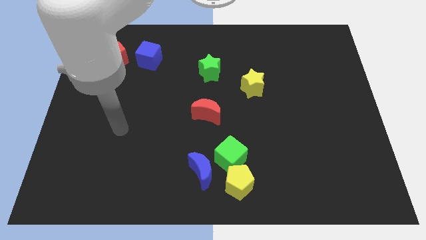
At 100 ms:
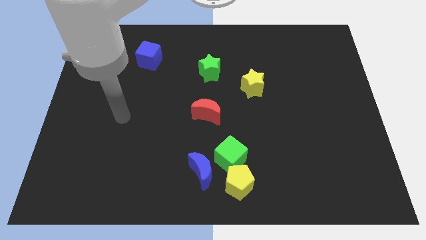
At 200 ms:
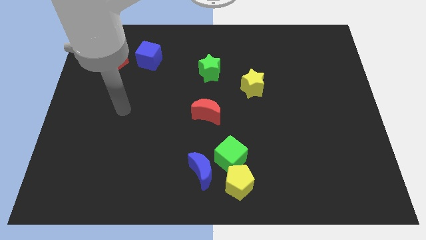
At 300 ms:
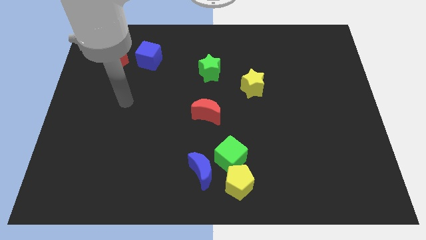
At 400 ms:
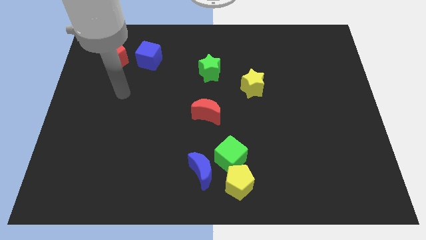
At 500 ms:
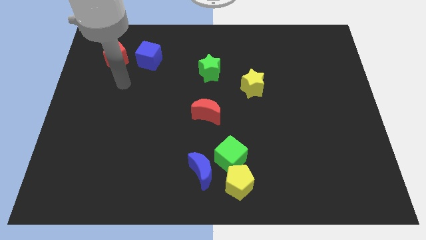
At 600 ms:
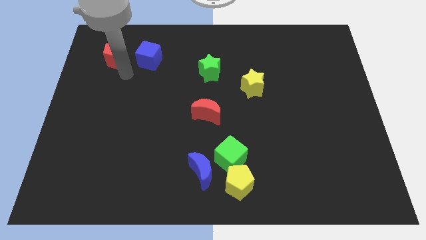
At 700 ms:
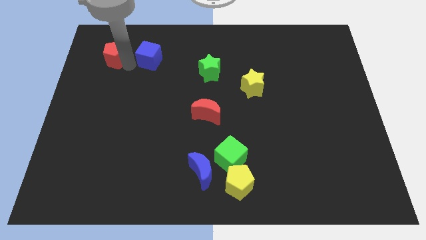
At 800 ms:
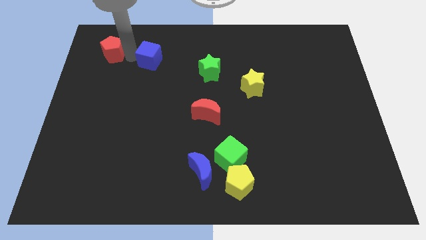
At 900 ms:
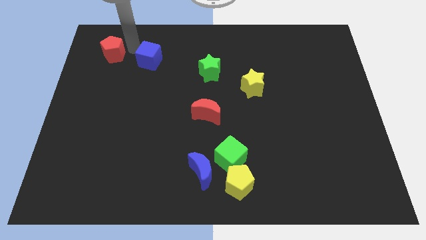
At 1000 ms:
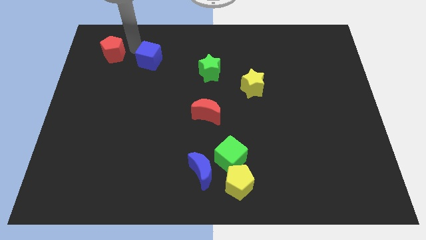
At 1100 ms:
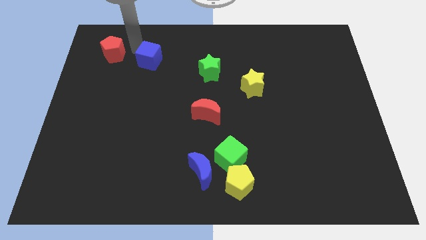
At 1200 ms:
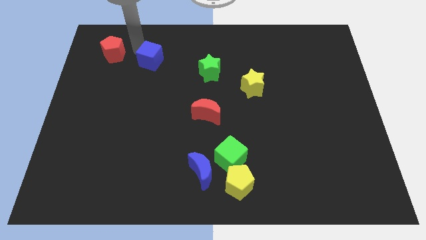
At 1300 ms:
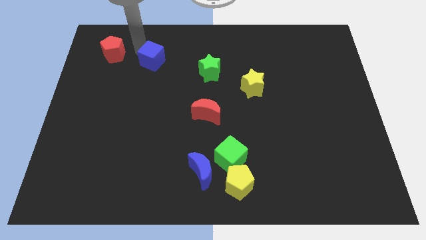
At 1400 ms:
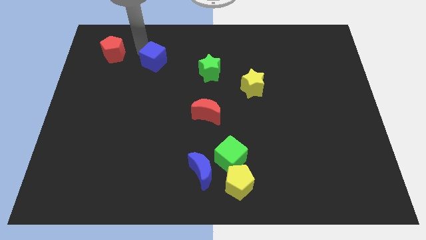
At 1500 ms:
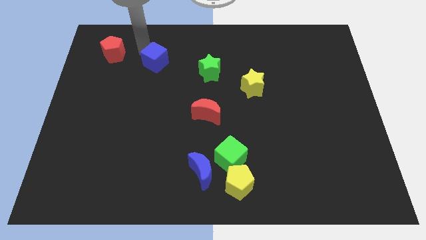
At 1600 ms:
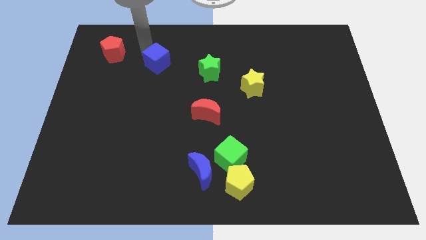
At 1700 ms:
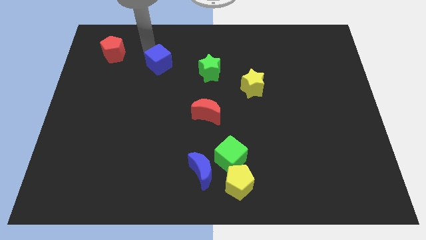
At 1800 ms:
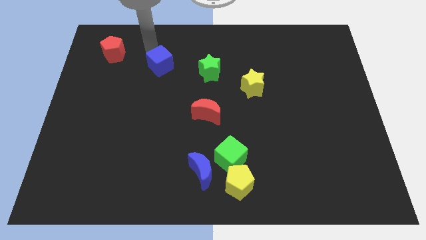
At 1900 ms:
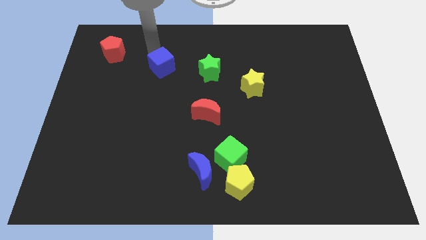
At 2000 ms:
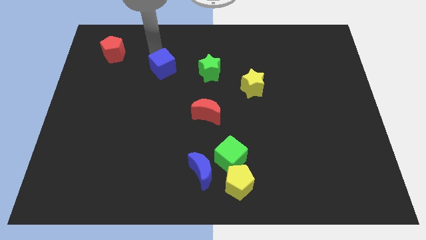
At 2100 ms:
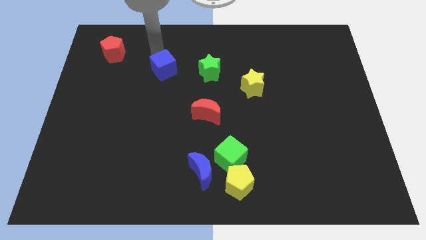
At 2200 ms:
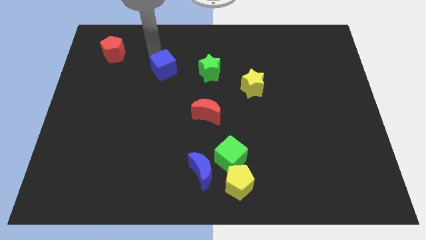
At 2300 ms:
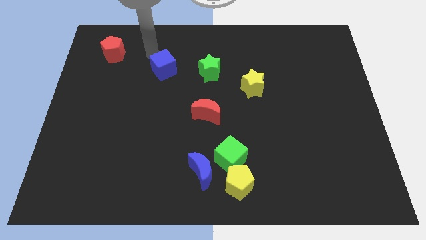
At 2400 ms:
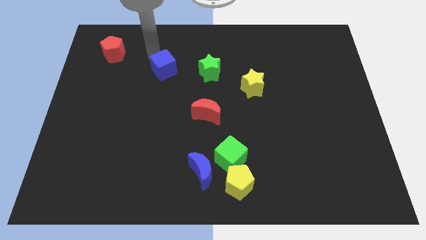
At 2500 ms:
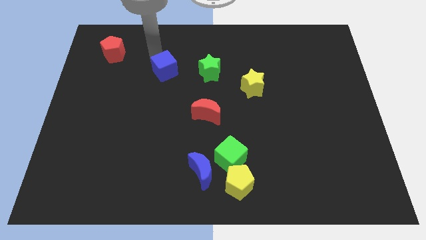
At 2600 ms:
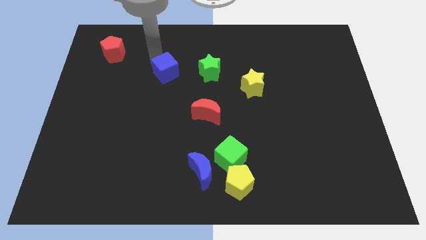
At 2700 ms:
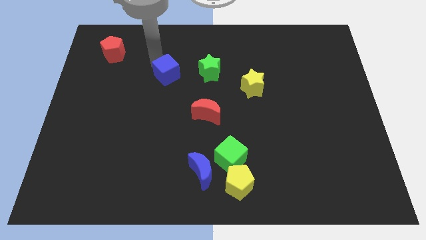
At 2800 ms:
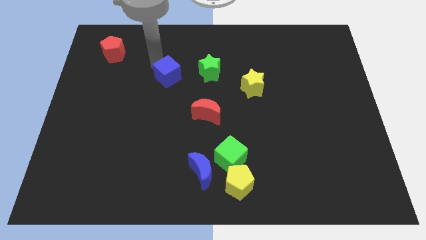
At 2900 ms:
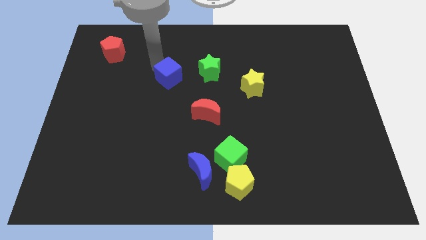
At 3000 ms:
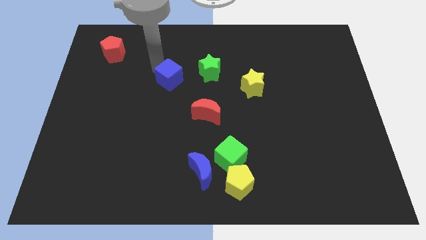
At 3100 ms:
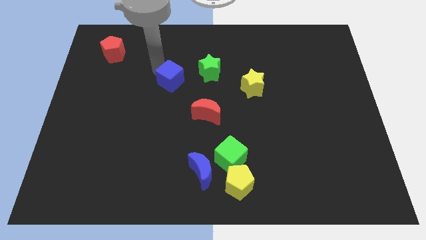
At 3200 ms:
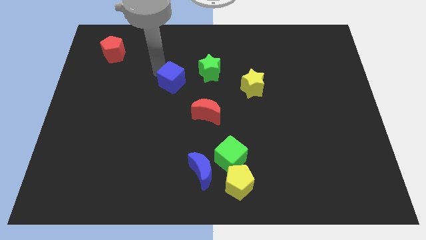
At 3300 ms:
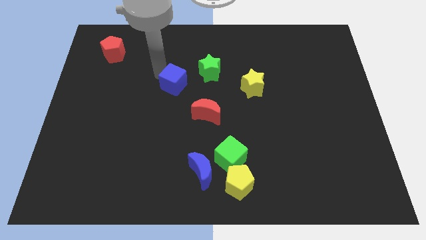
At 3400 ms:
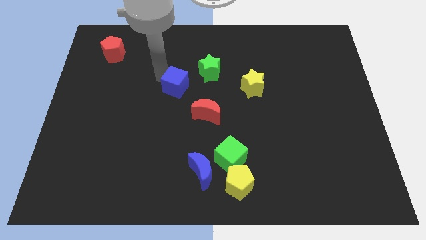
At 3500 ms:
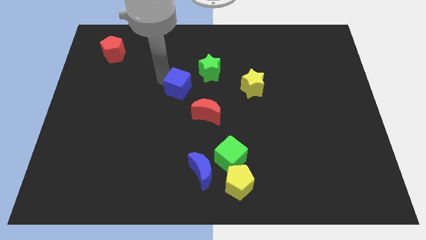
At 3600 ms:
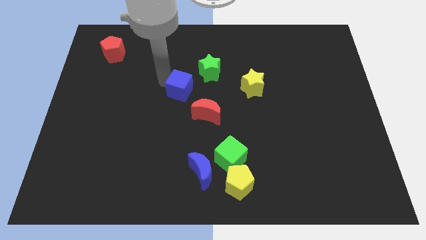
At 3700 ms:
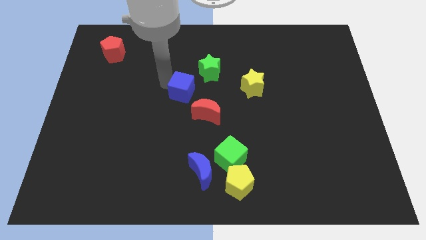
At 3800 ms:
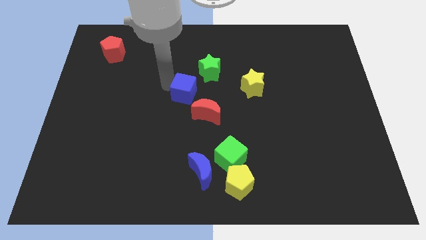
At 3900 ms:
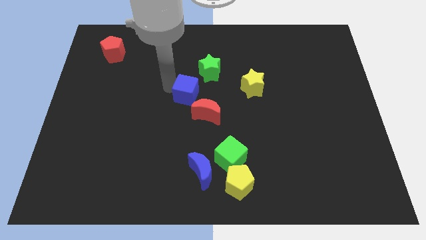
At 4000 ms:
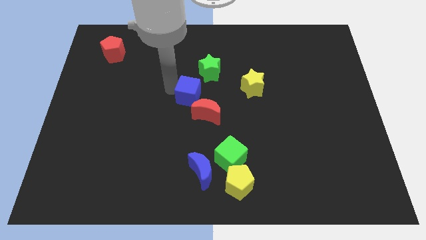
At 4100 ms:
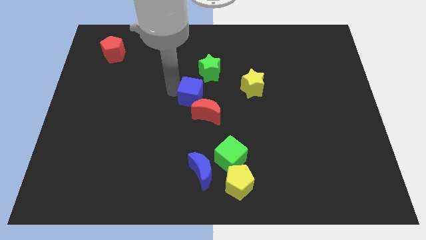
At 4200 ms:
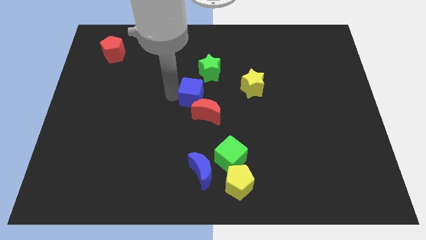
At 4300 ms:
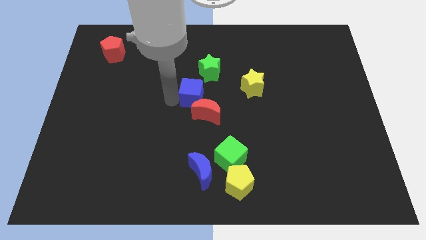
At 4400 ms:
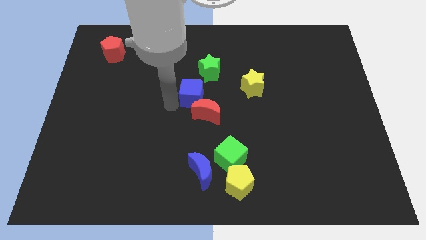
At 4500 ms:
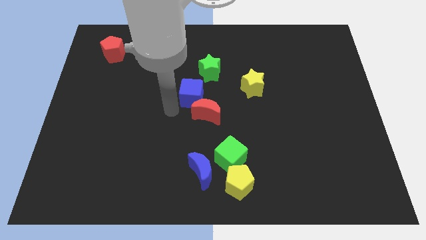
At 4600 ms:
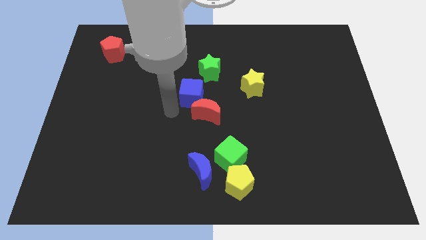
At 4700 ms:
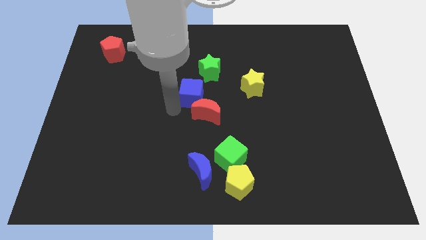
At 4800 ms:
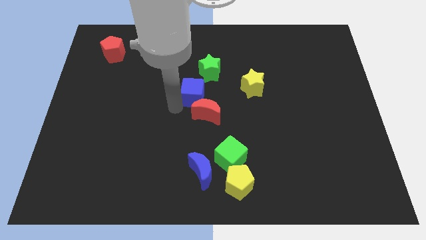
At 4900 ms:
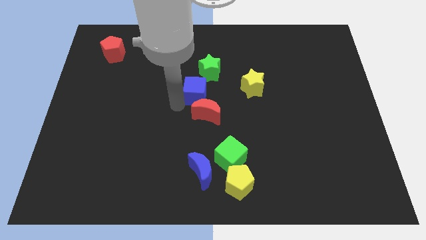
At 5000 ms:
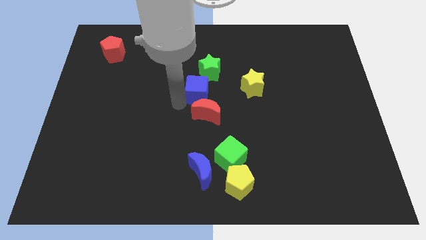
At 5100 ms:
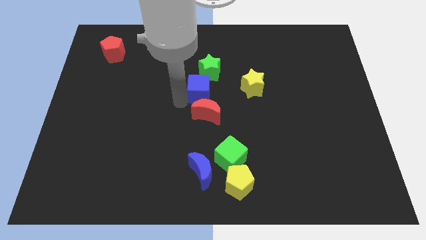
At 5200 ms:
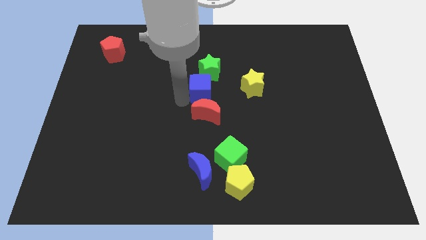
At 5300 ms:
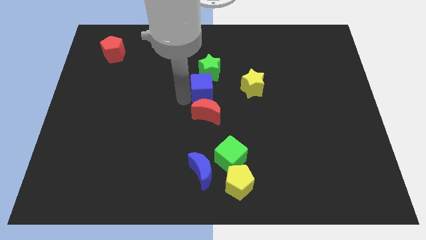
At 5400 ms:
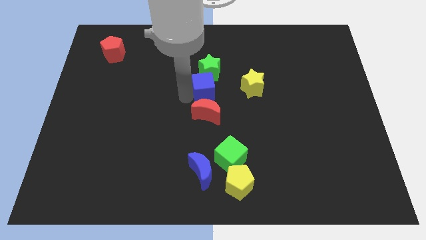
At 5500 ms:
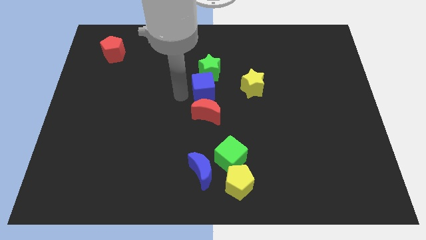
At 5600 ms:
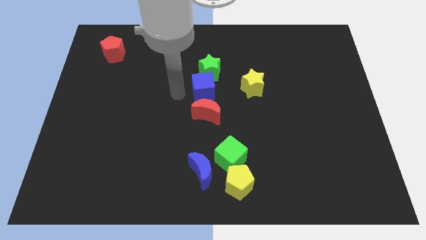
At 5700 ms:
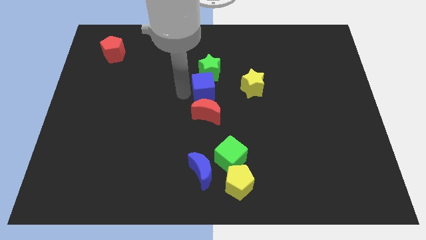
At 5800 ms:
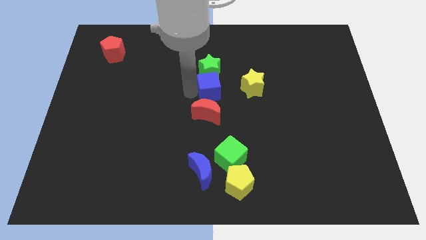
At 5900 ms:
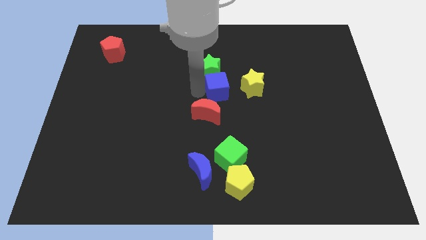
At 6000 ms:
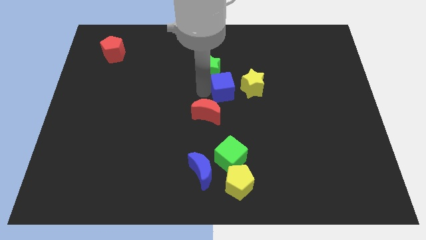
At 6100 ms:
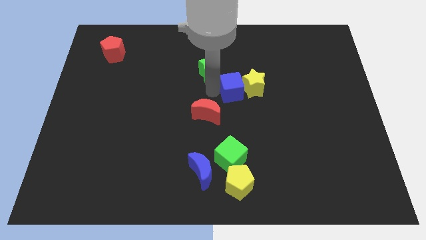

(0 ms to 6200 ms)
push the blue cube to the yellow star
